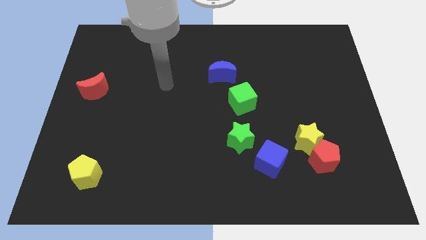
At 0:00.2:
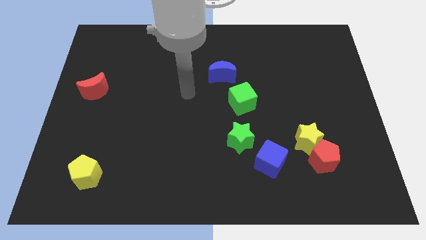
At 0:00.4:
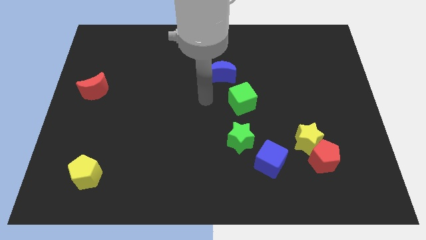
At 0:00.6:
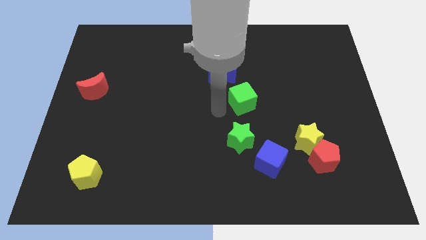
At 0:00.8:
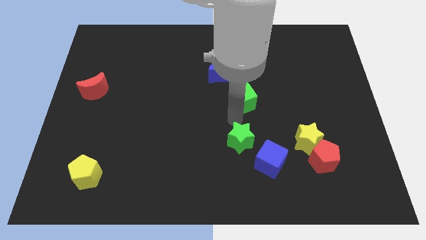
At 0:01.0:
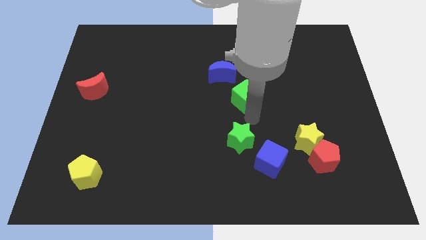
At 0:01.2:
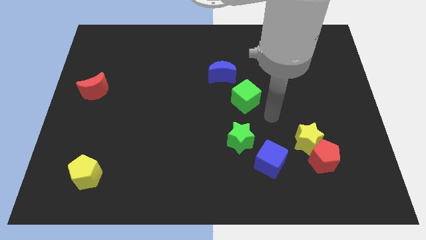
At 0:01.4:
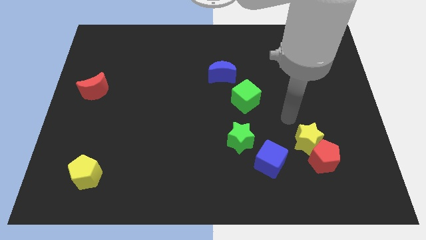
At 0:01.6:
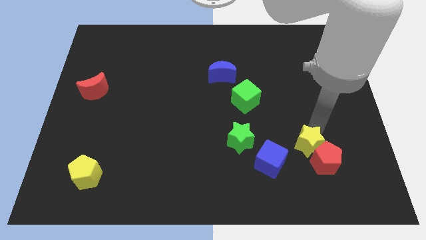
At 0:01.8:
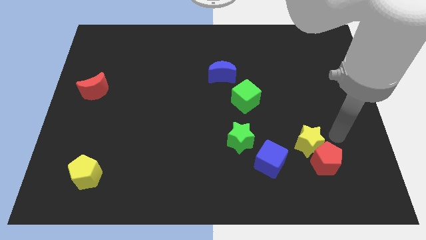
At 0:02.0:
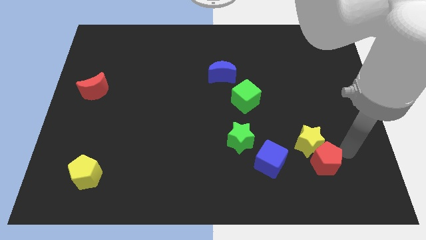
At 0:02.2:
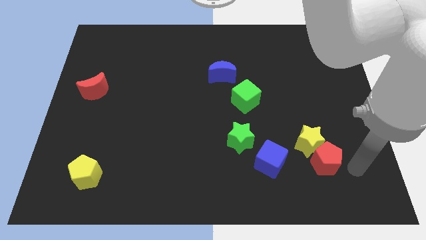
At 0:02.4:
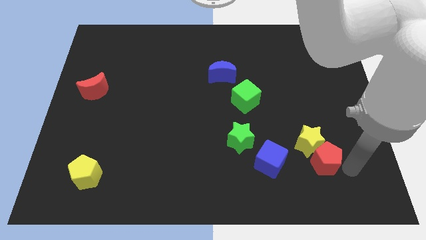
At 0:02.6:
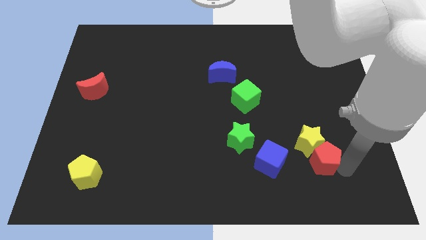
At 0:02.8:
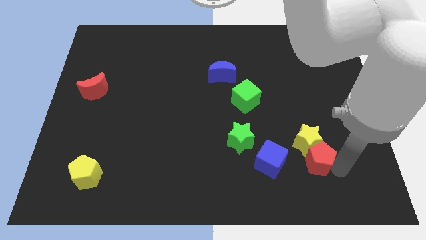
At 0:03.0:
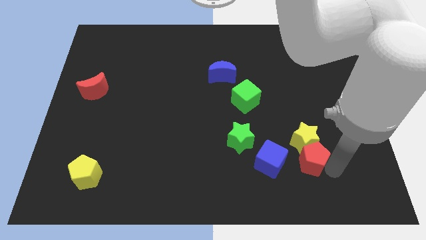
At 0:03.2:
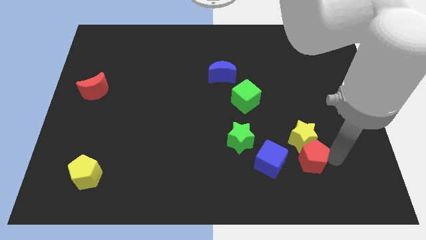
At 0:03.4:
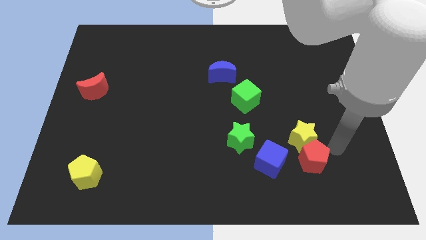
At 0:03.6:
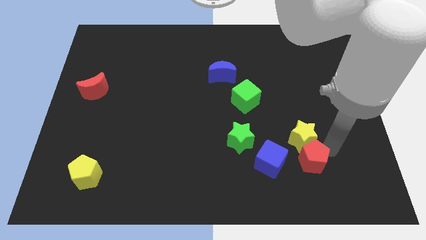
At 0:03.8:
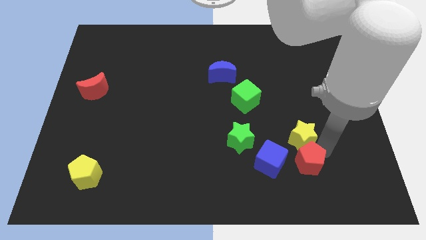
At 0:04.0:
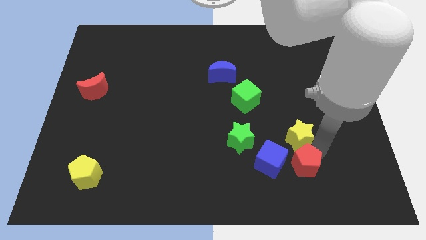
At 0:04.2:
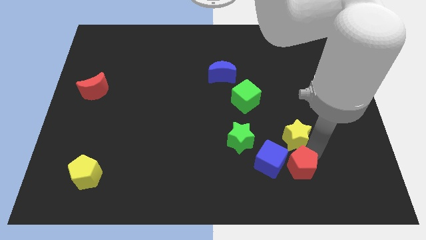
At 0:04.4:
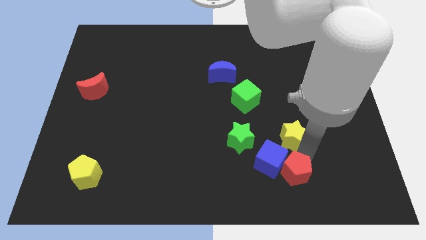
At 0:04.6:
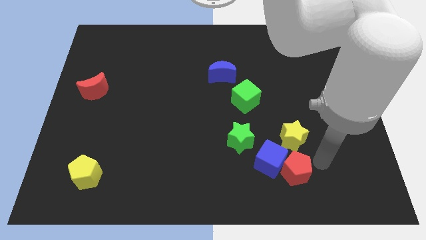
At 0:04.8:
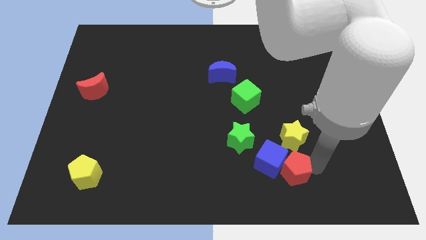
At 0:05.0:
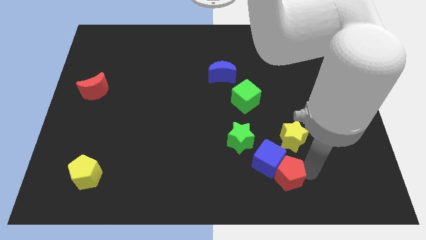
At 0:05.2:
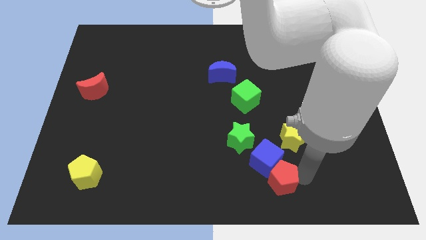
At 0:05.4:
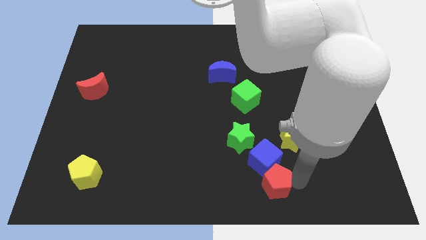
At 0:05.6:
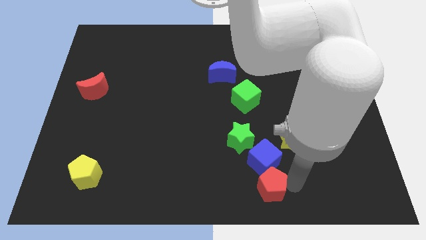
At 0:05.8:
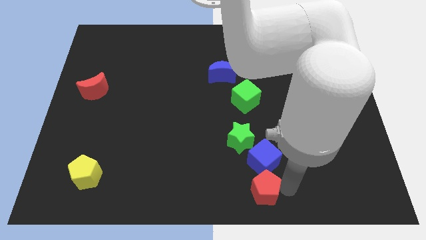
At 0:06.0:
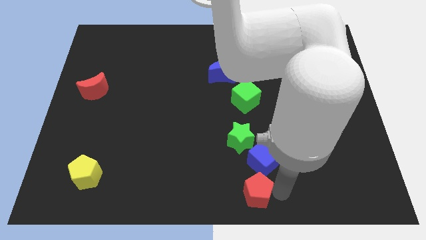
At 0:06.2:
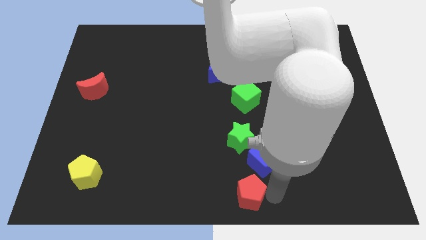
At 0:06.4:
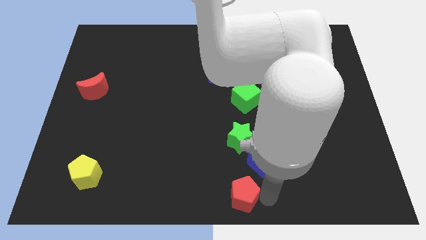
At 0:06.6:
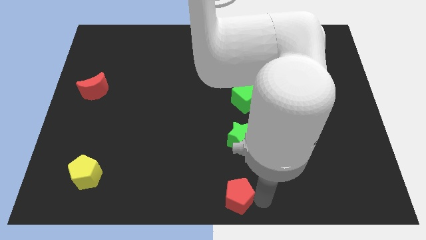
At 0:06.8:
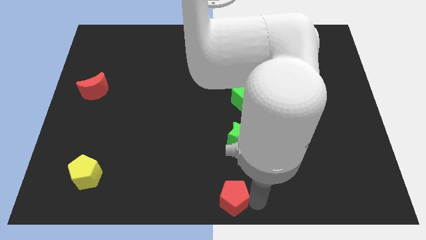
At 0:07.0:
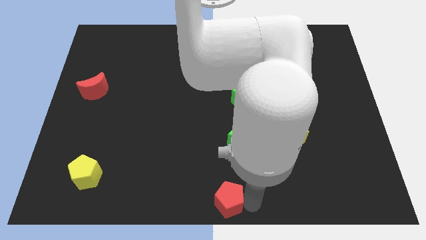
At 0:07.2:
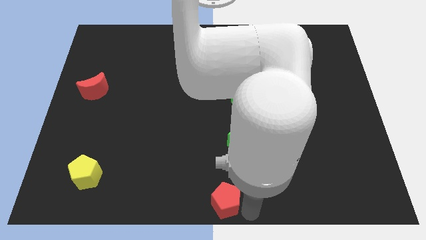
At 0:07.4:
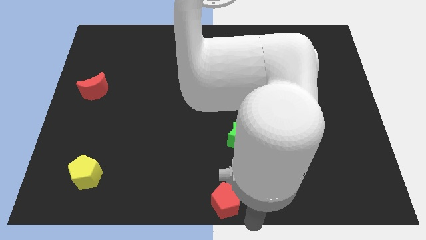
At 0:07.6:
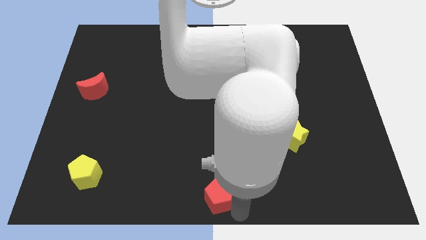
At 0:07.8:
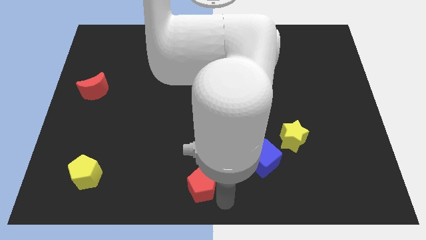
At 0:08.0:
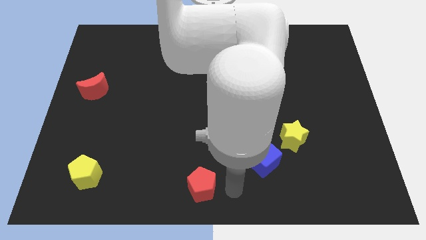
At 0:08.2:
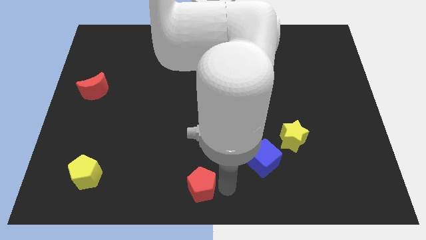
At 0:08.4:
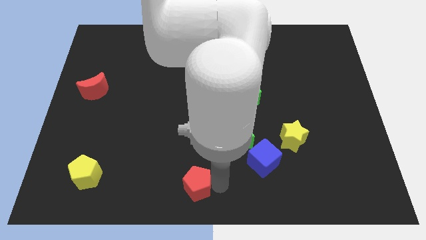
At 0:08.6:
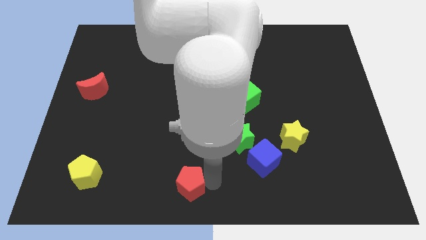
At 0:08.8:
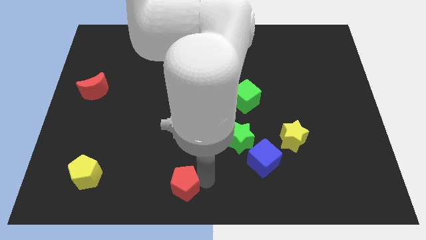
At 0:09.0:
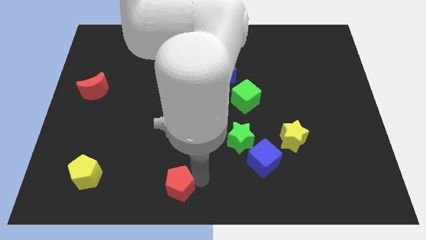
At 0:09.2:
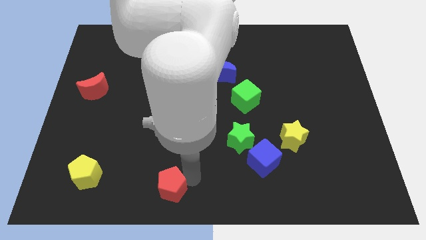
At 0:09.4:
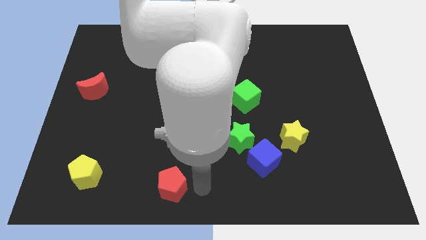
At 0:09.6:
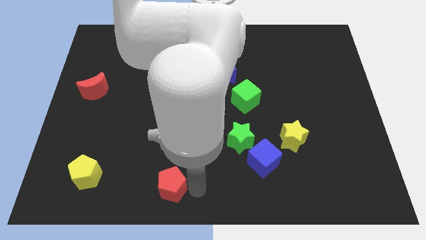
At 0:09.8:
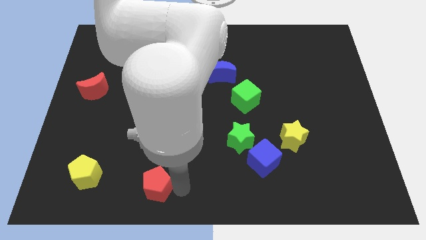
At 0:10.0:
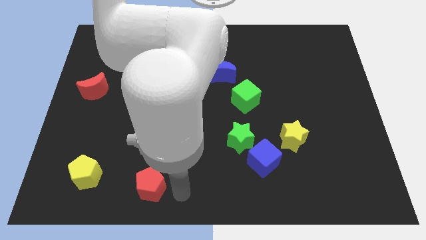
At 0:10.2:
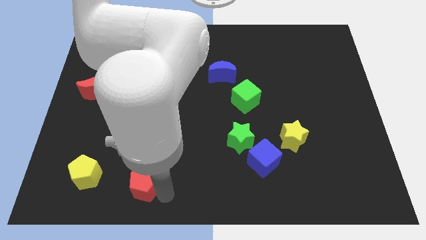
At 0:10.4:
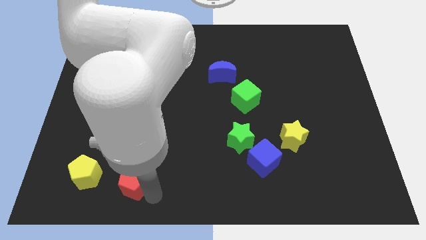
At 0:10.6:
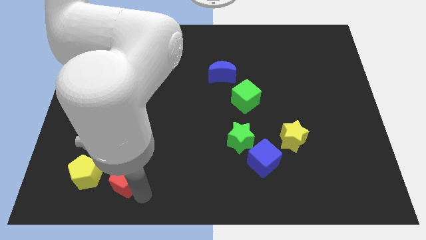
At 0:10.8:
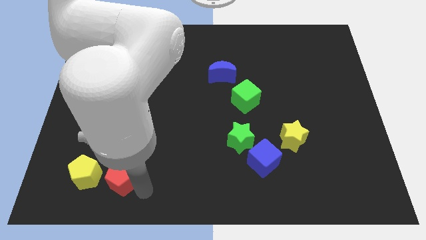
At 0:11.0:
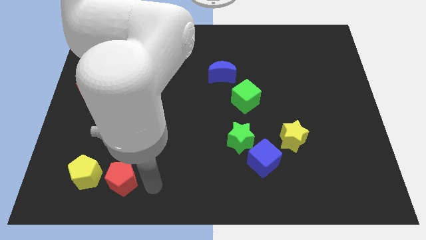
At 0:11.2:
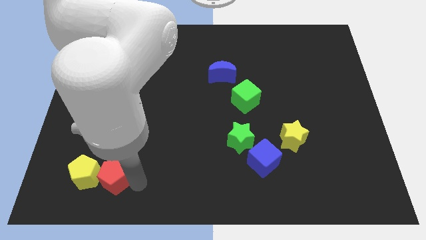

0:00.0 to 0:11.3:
move the red pentagon towards the yellow pentagon

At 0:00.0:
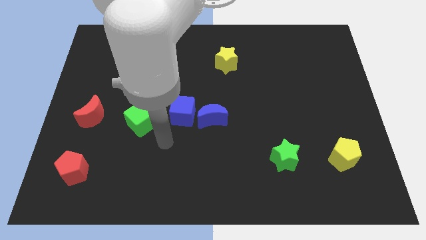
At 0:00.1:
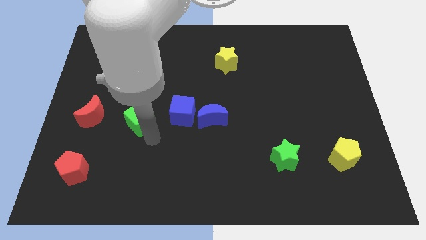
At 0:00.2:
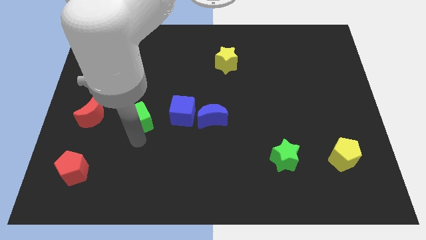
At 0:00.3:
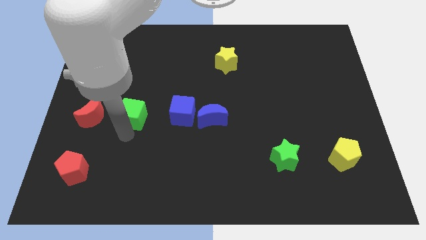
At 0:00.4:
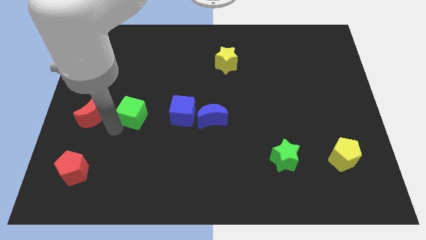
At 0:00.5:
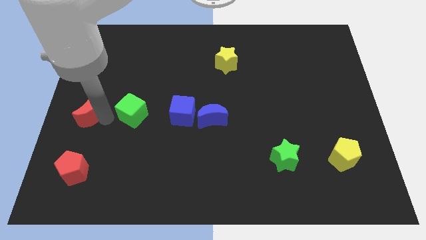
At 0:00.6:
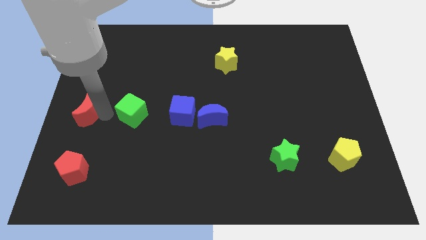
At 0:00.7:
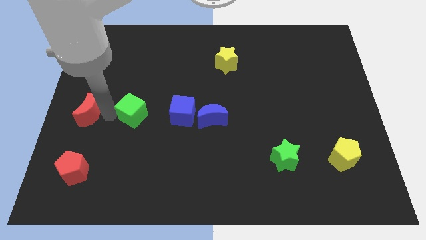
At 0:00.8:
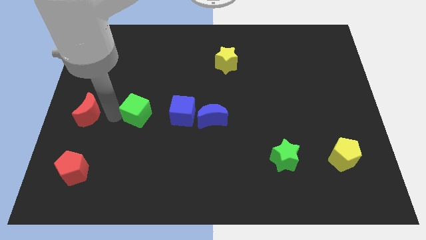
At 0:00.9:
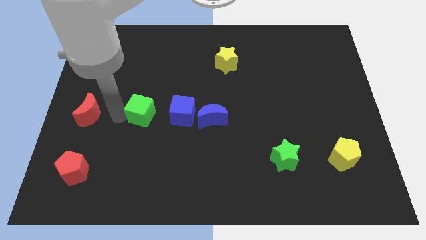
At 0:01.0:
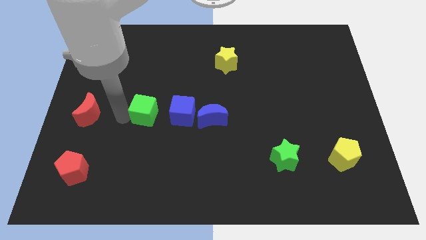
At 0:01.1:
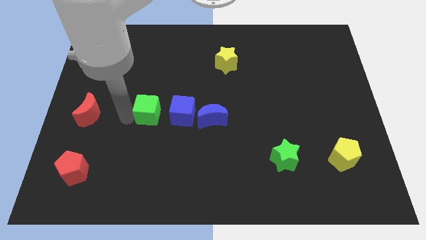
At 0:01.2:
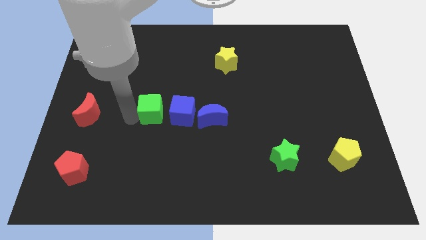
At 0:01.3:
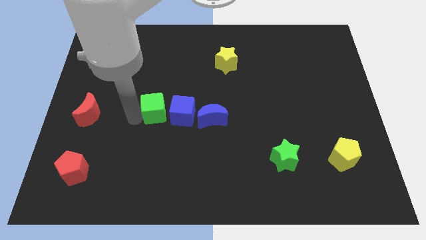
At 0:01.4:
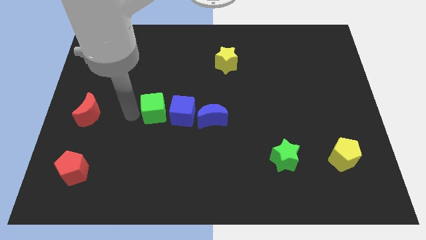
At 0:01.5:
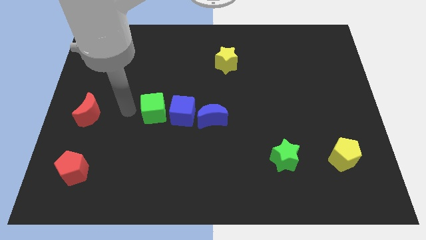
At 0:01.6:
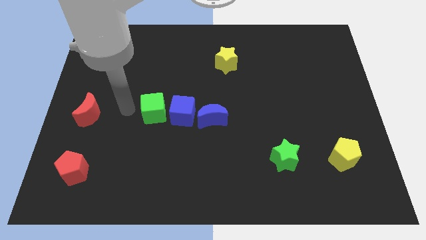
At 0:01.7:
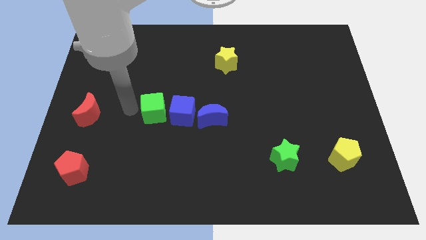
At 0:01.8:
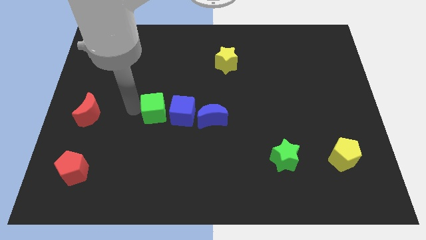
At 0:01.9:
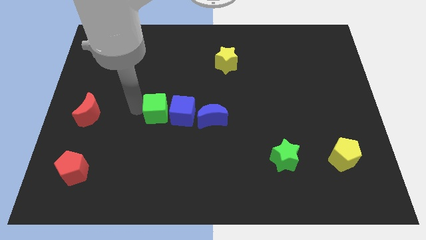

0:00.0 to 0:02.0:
slide the green cube to the blue cube
